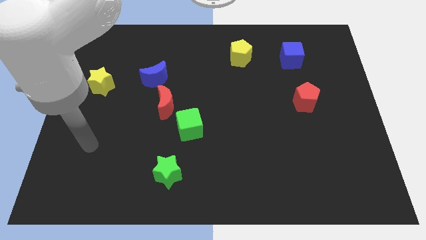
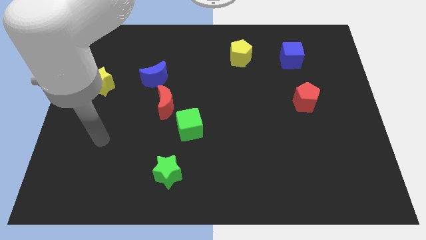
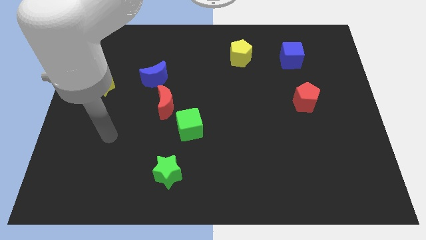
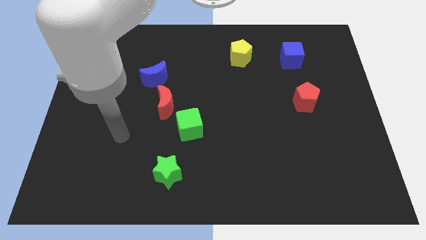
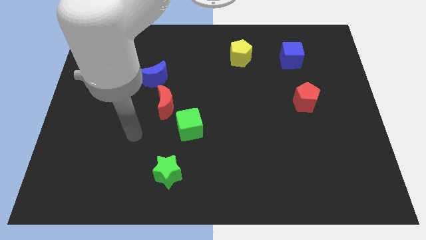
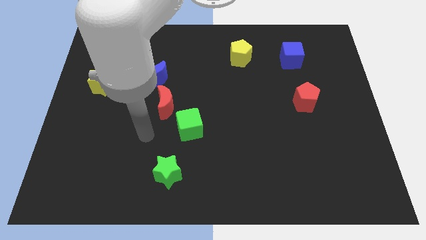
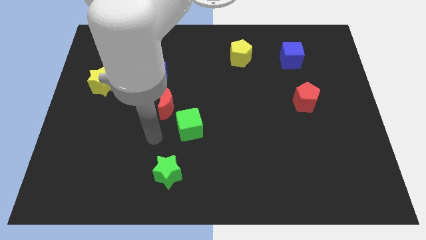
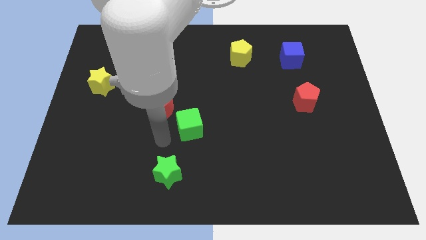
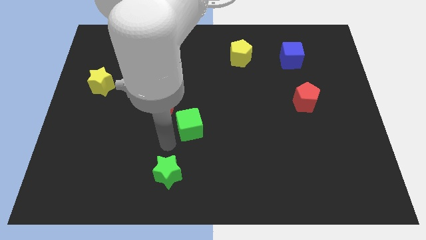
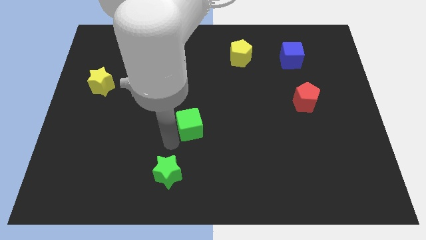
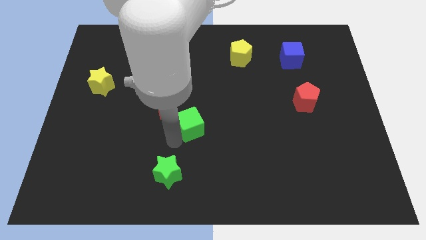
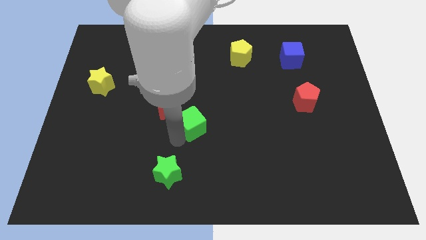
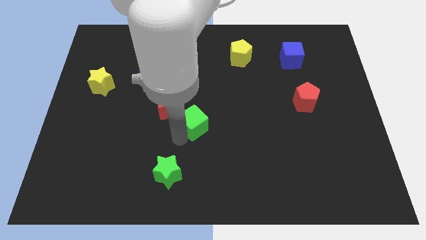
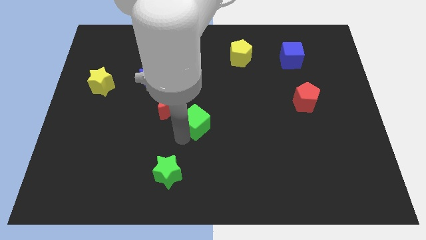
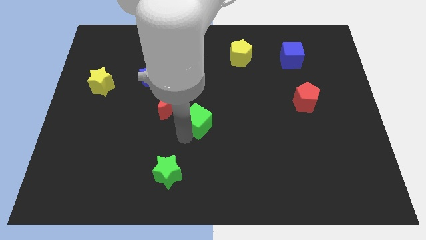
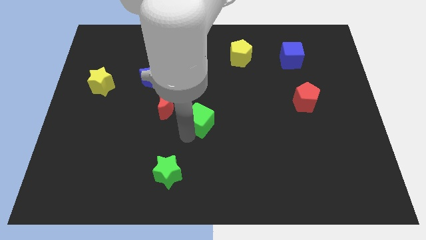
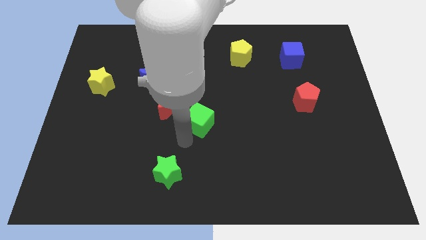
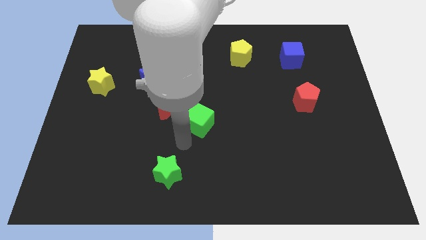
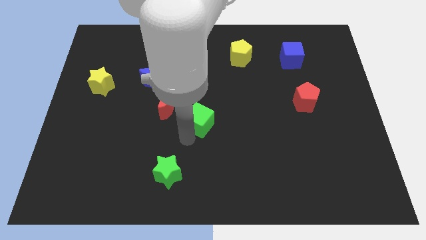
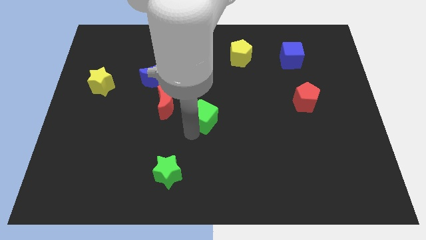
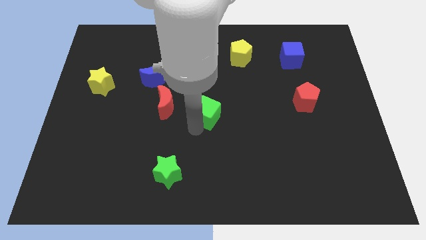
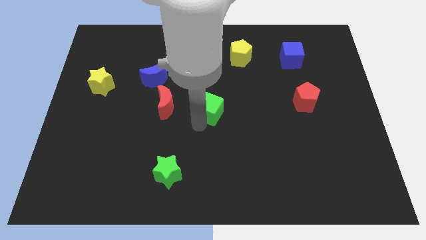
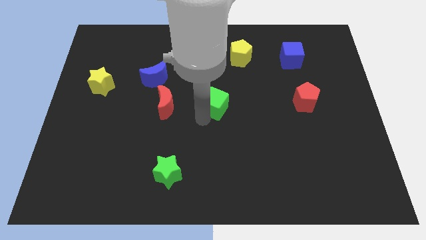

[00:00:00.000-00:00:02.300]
slightly slide the green cube upwards and then right

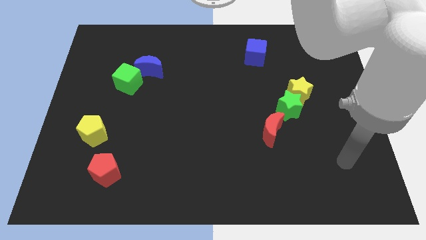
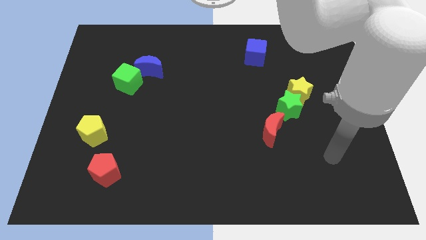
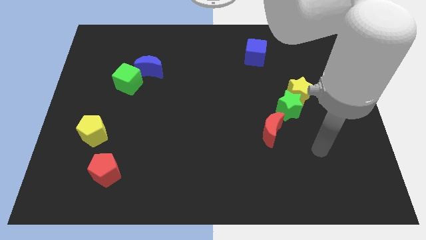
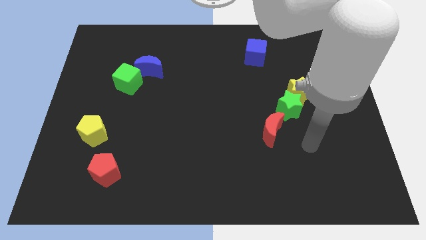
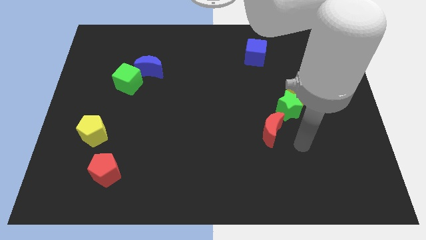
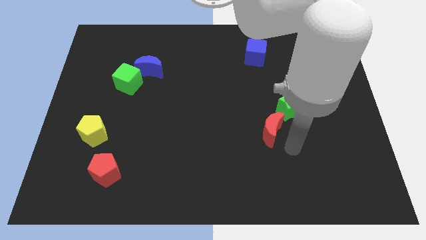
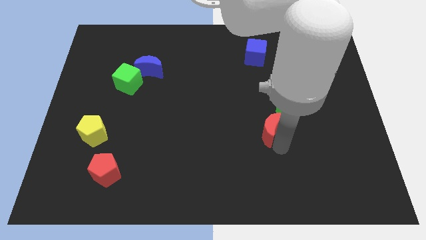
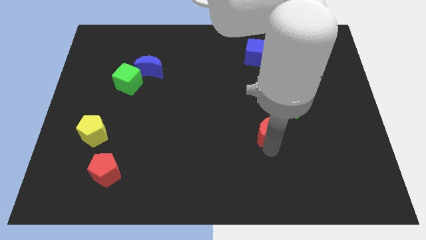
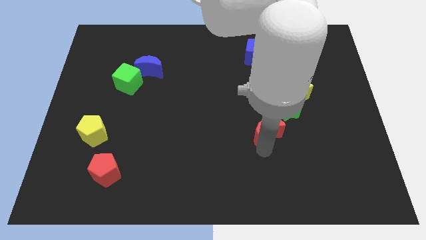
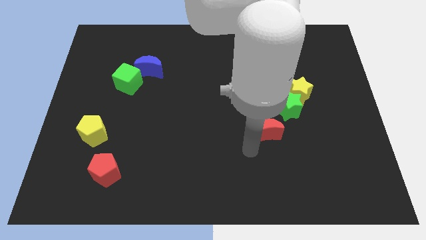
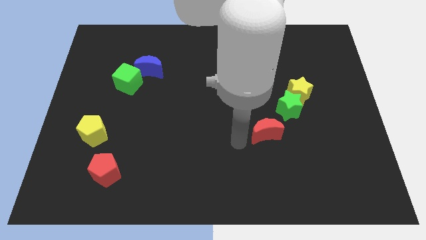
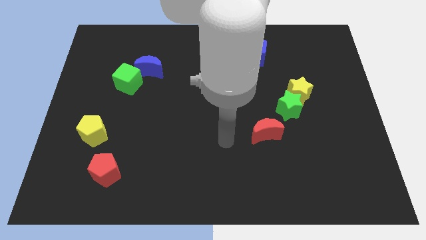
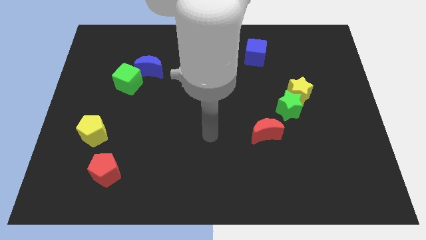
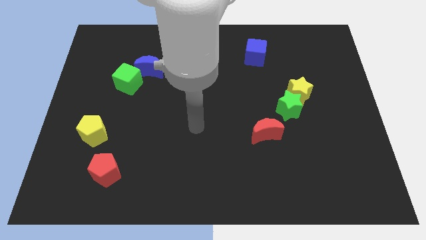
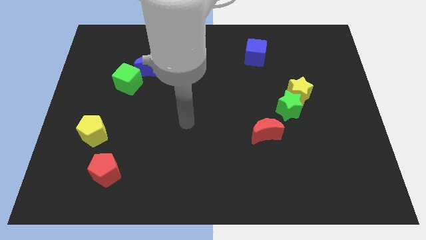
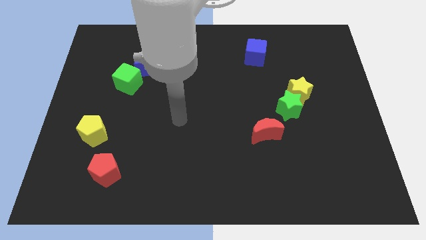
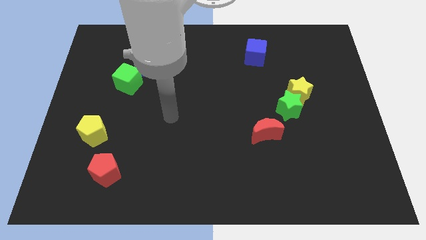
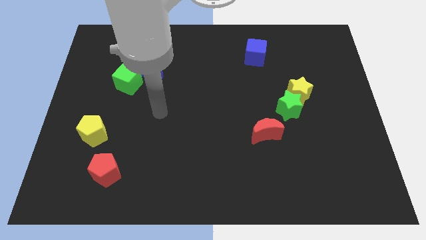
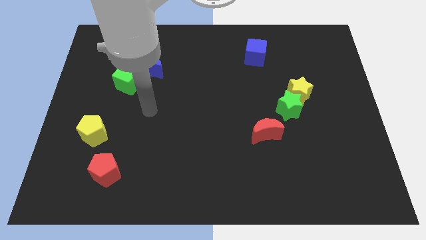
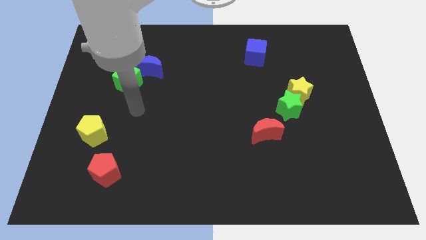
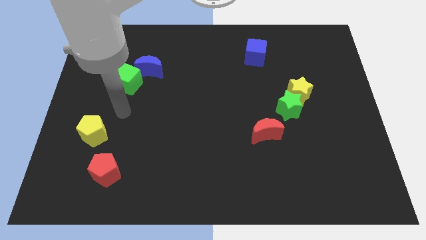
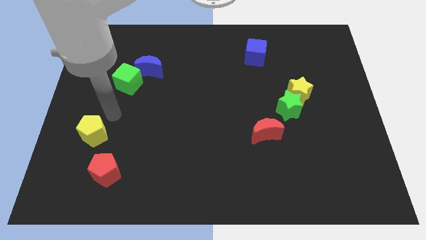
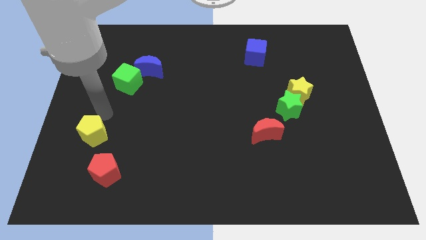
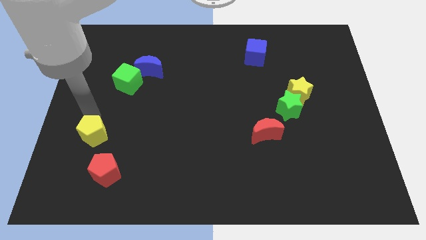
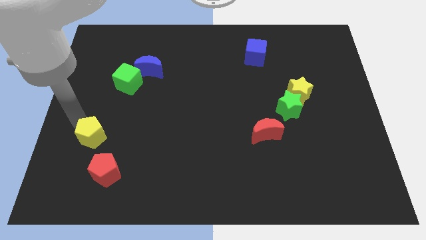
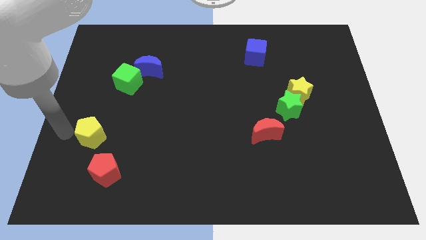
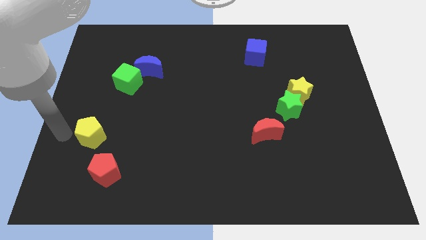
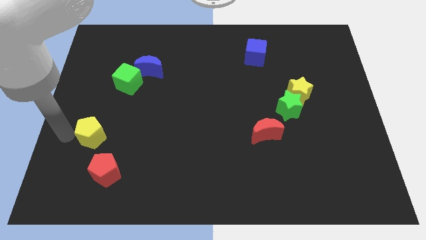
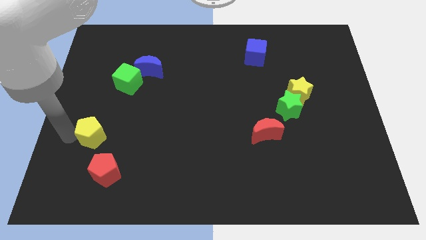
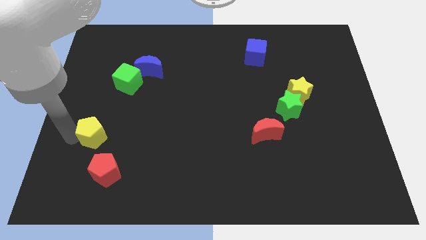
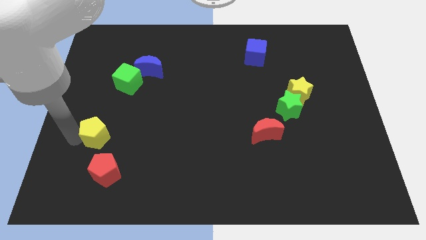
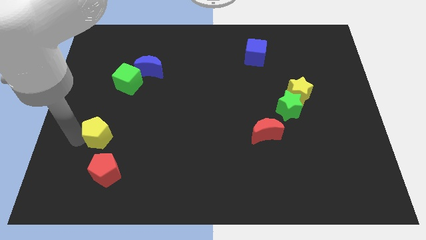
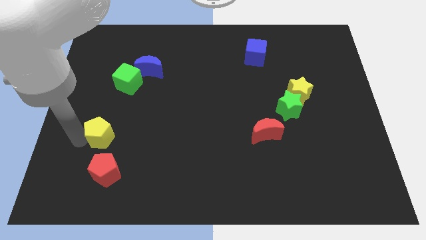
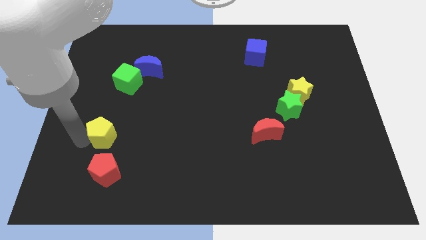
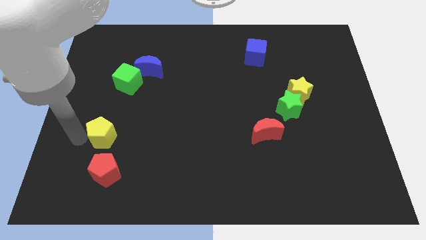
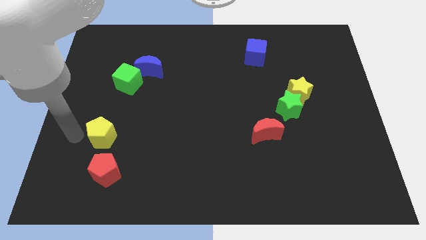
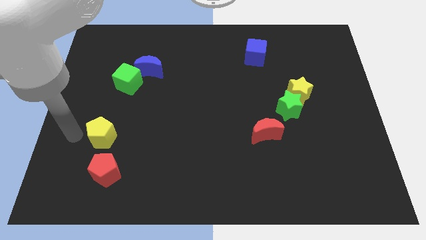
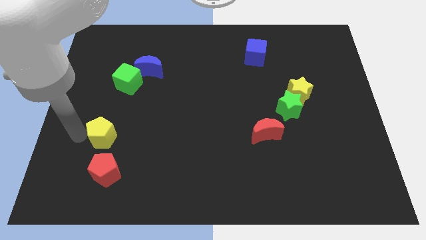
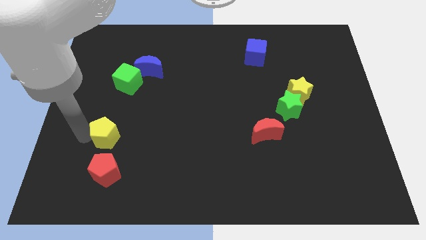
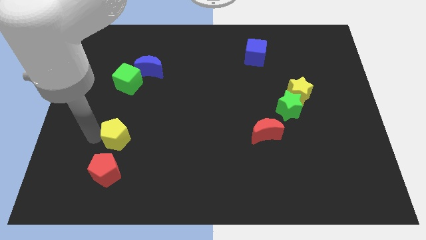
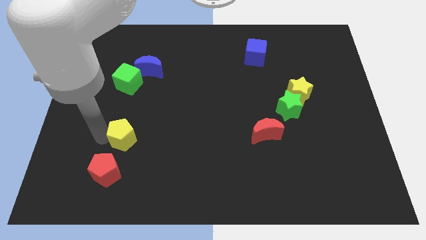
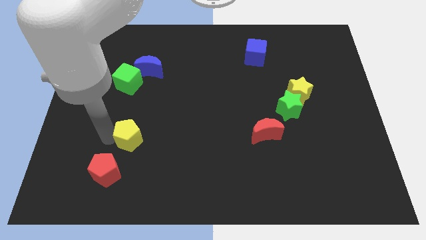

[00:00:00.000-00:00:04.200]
push the yellow pentagon right a little bit

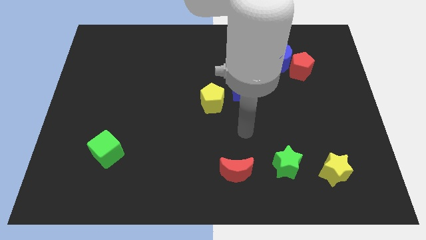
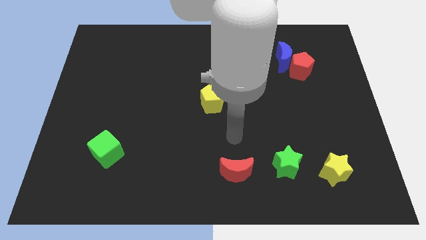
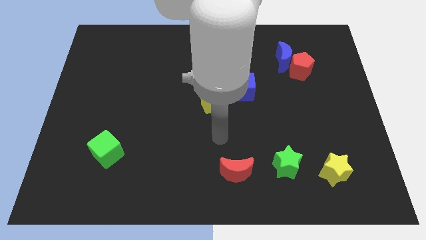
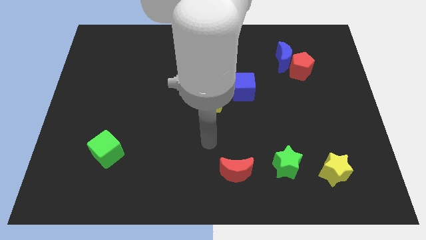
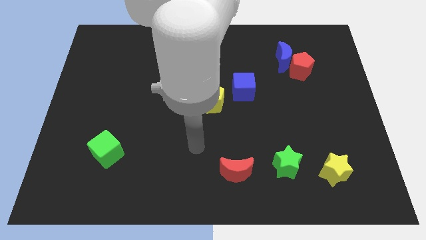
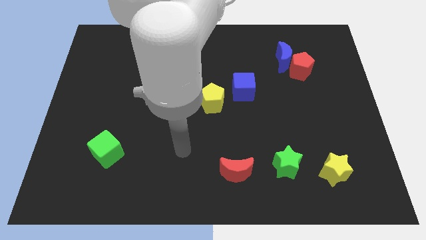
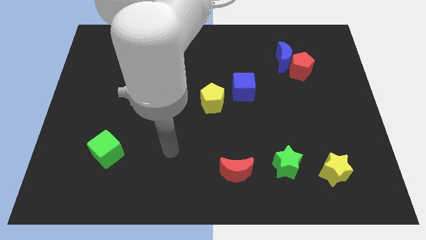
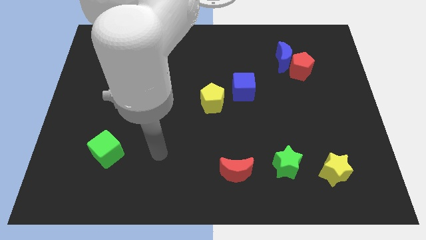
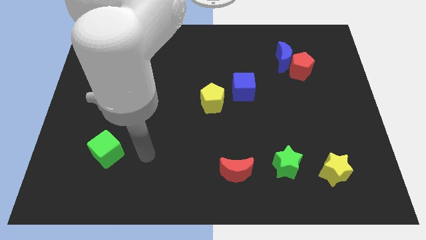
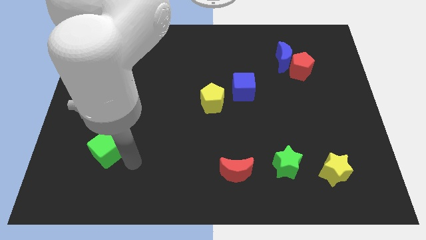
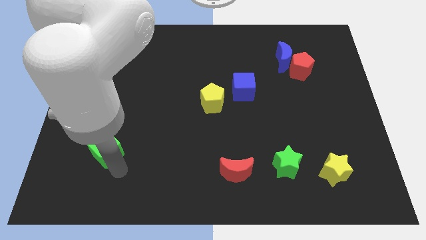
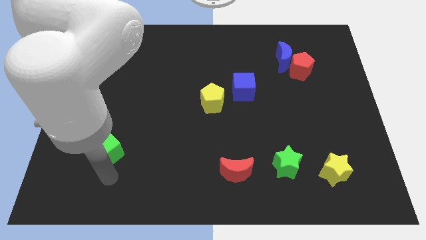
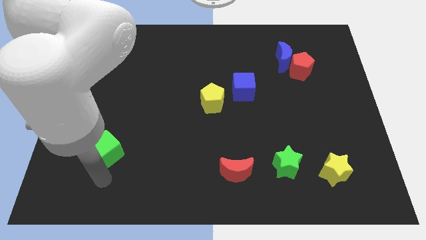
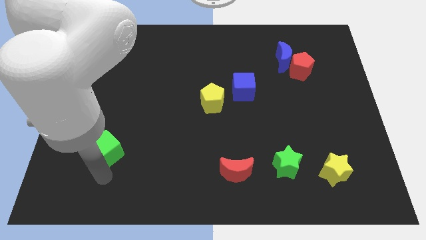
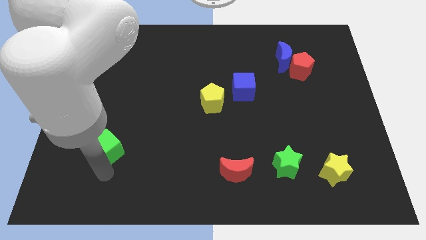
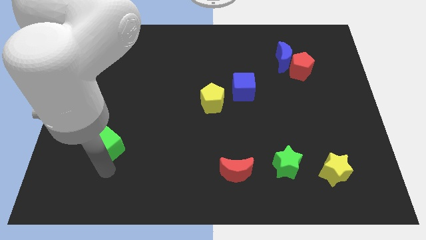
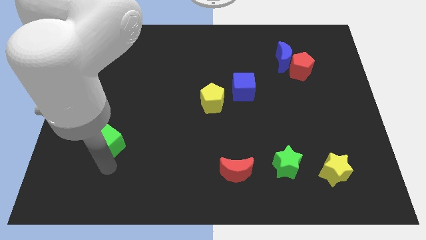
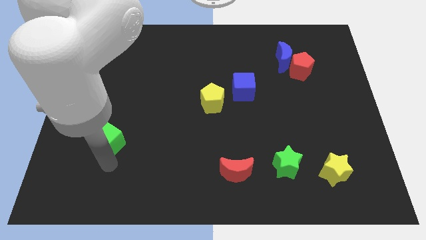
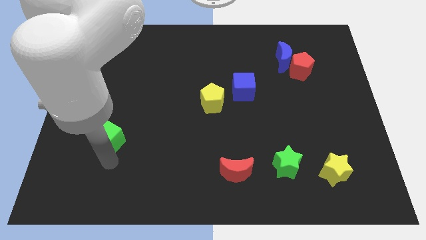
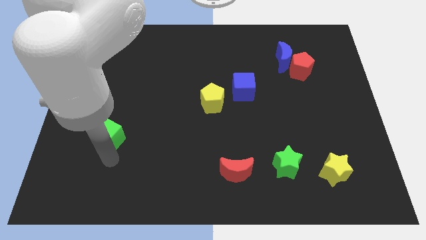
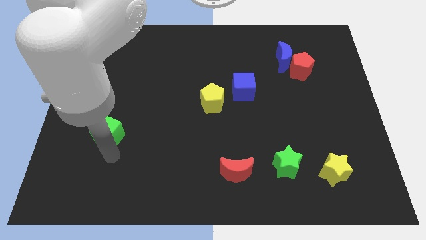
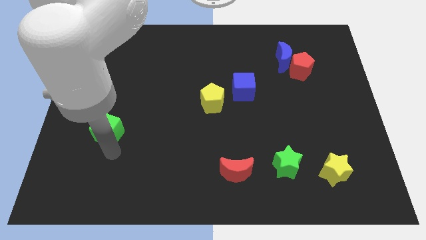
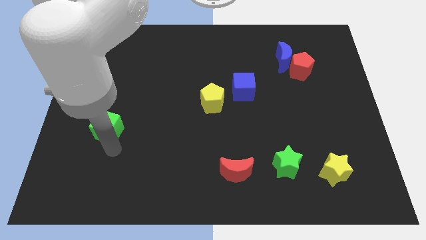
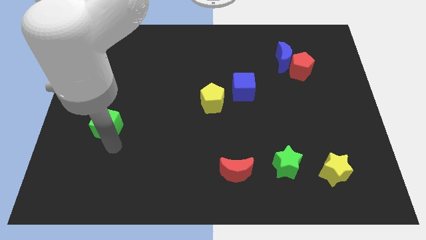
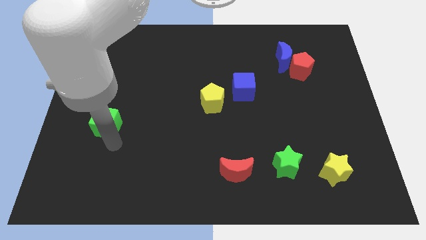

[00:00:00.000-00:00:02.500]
push the green cube a little up
